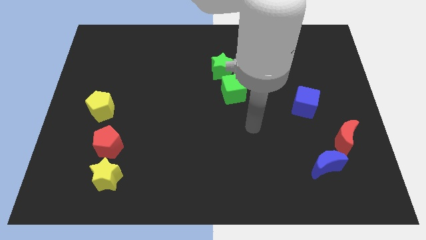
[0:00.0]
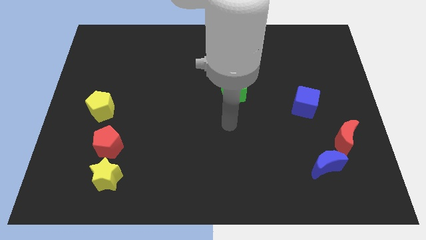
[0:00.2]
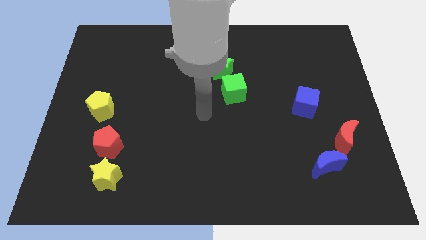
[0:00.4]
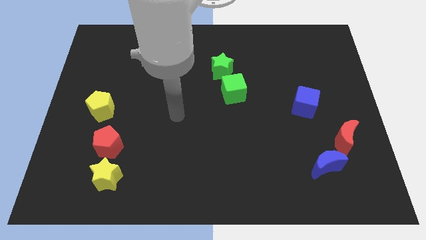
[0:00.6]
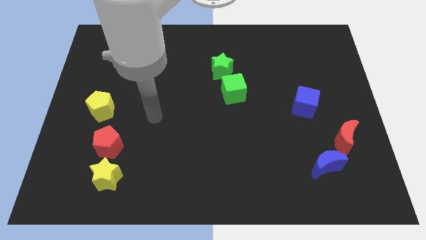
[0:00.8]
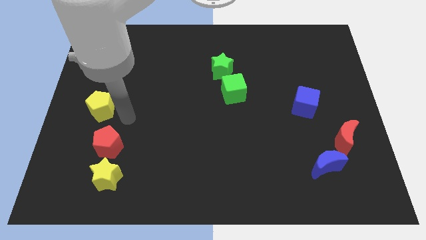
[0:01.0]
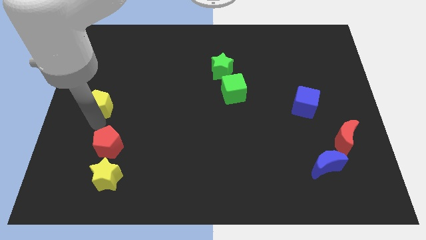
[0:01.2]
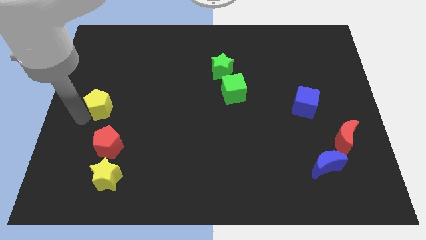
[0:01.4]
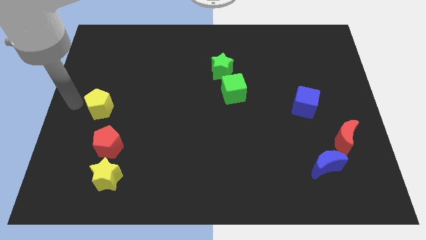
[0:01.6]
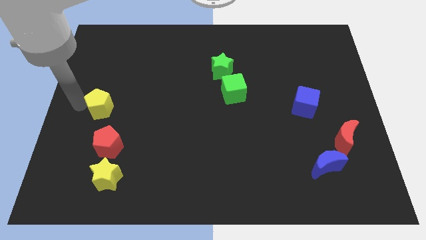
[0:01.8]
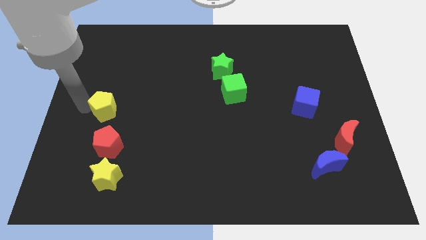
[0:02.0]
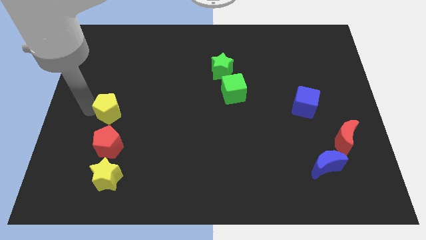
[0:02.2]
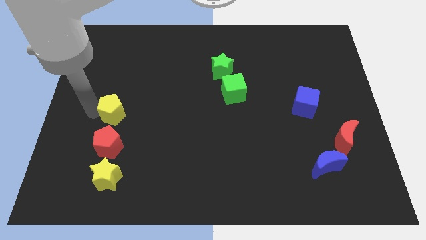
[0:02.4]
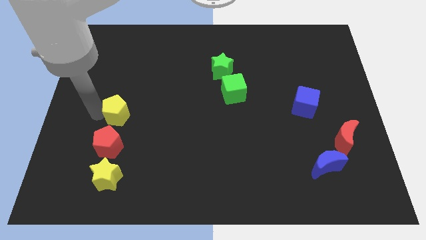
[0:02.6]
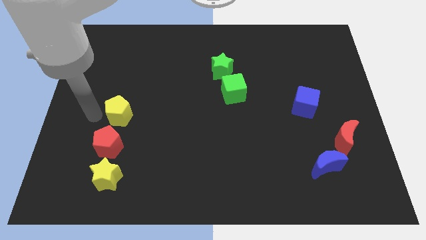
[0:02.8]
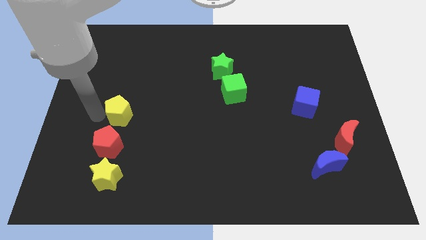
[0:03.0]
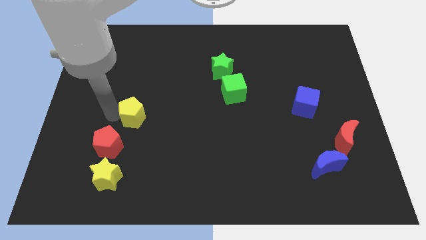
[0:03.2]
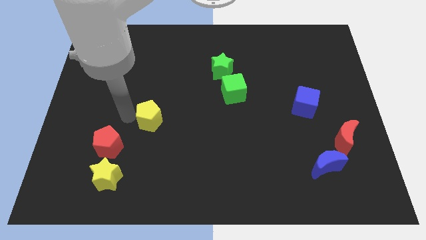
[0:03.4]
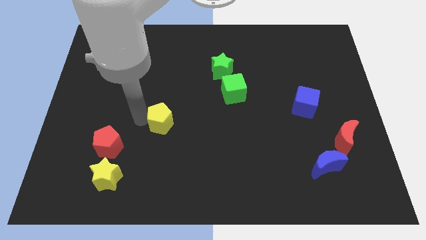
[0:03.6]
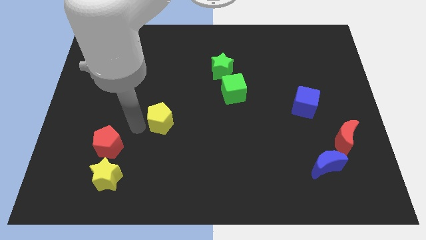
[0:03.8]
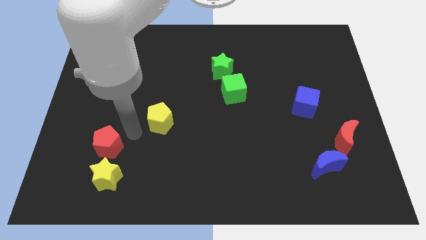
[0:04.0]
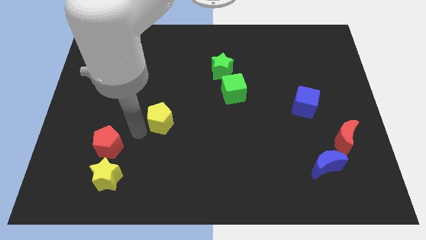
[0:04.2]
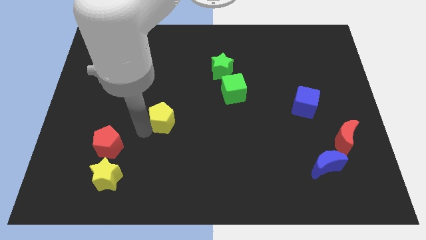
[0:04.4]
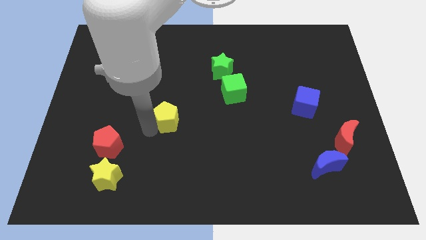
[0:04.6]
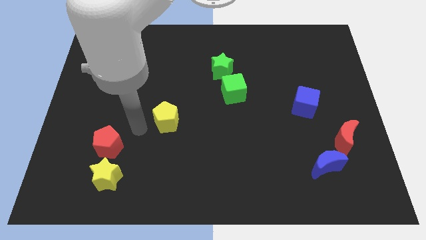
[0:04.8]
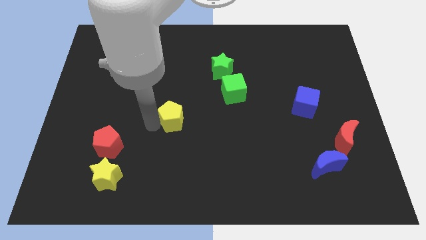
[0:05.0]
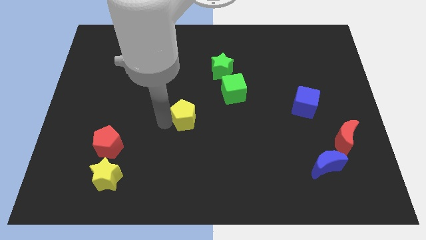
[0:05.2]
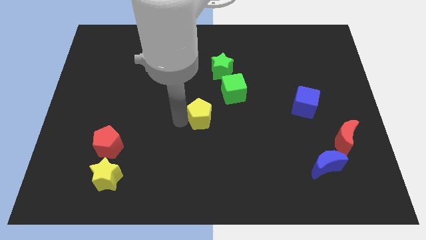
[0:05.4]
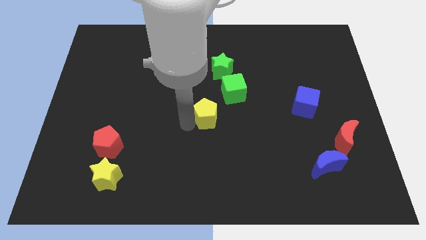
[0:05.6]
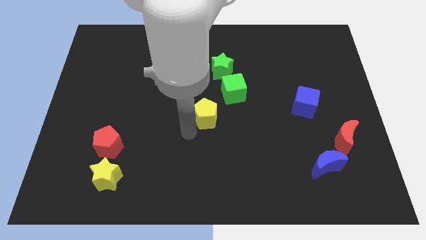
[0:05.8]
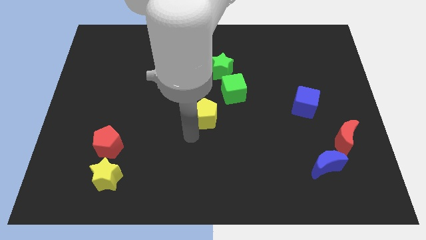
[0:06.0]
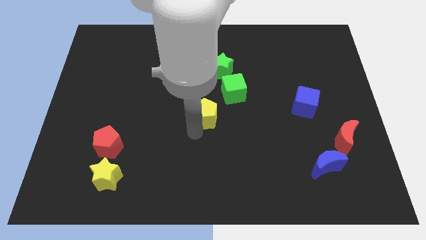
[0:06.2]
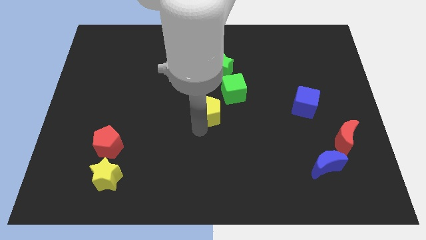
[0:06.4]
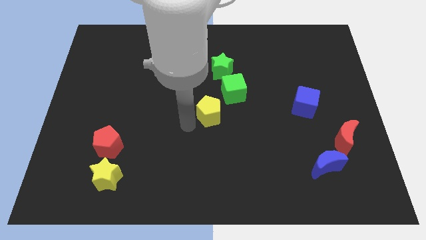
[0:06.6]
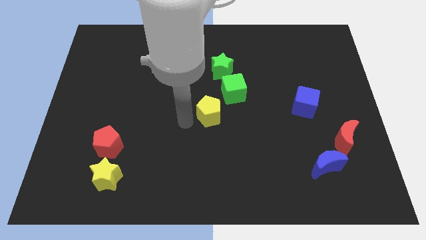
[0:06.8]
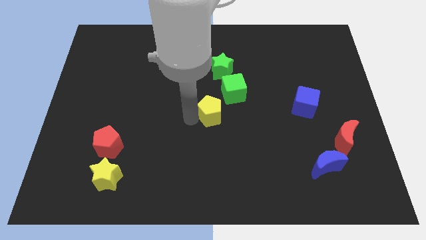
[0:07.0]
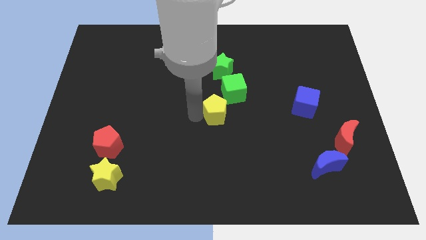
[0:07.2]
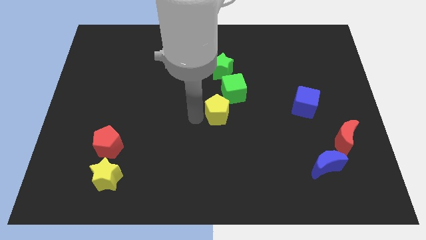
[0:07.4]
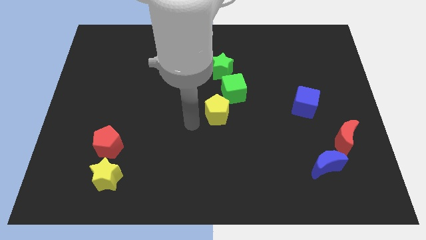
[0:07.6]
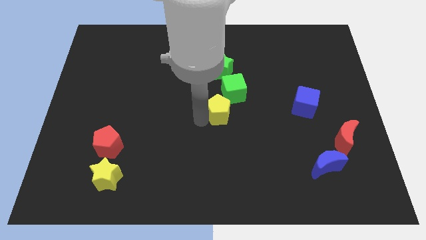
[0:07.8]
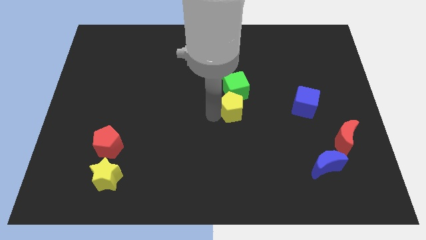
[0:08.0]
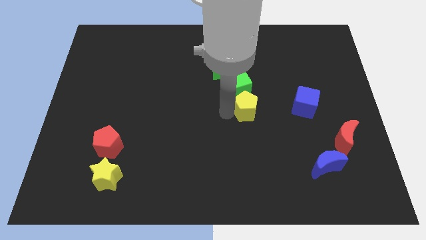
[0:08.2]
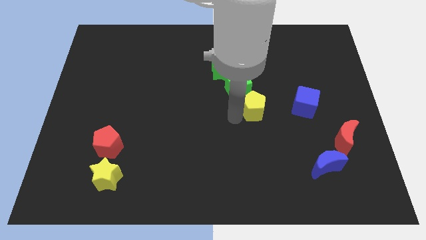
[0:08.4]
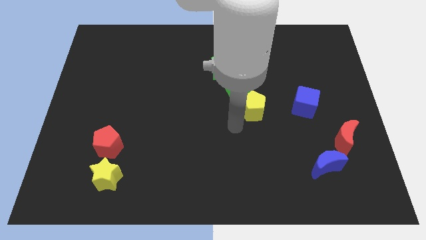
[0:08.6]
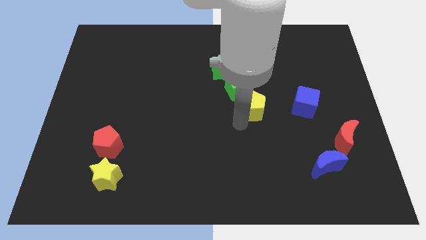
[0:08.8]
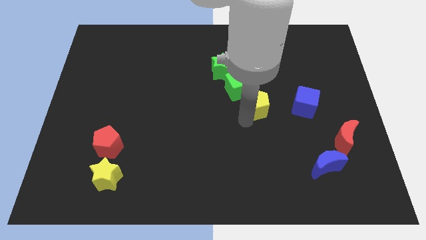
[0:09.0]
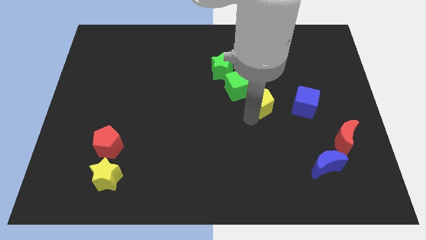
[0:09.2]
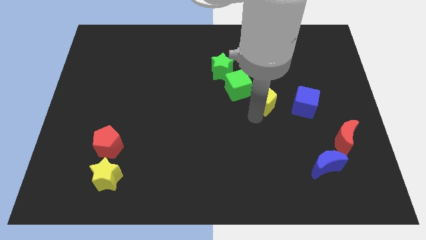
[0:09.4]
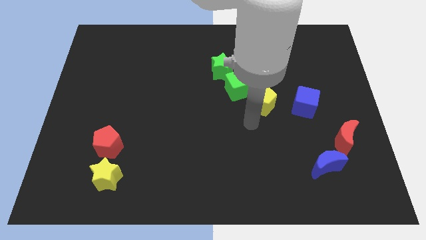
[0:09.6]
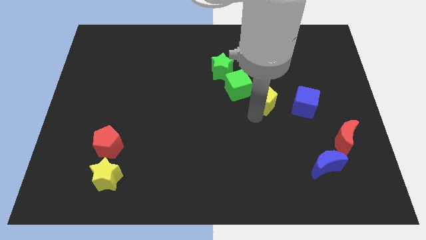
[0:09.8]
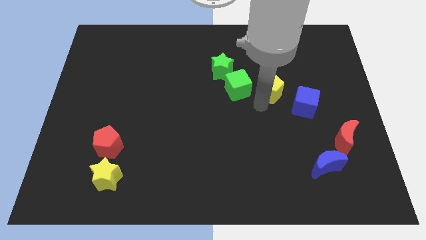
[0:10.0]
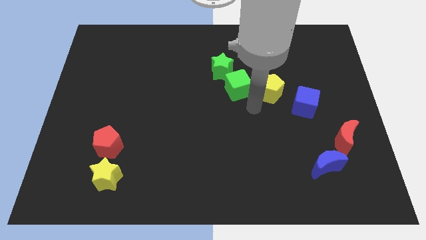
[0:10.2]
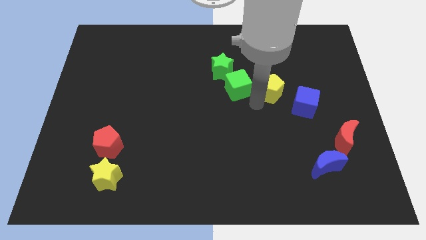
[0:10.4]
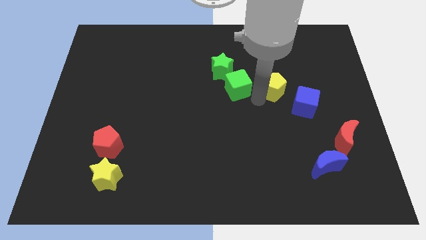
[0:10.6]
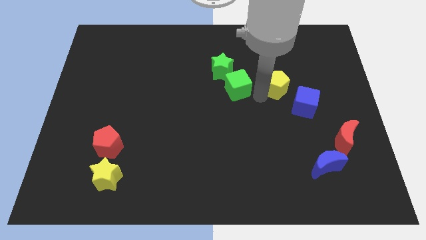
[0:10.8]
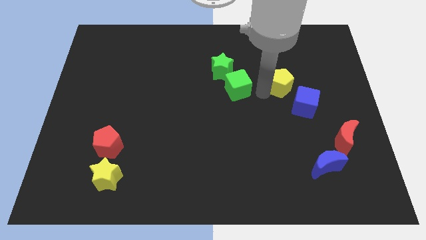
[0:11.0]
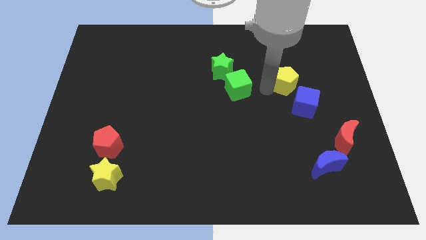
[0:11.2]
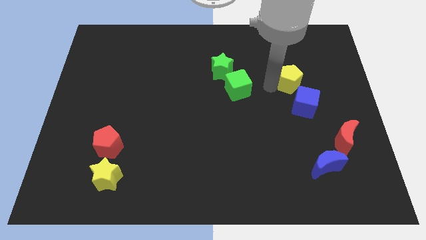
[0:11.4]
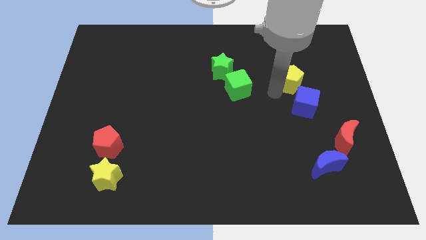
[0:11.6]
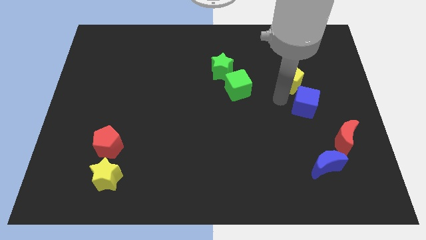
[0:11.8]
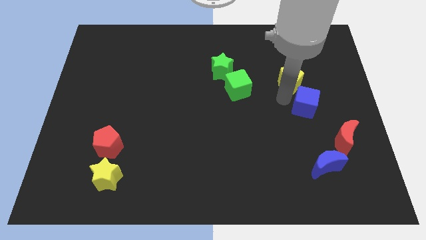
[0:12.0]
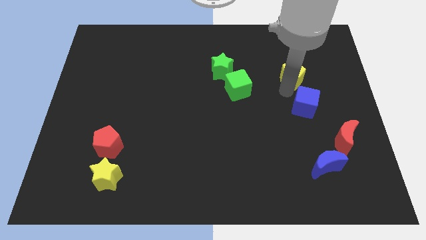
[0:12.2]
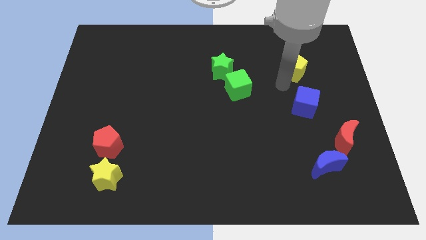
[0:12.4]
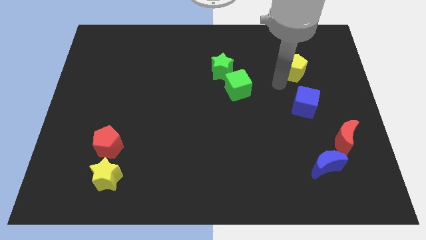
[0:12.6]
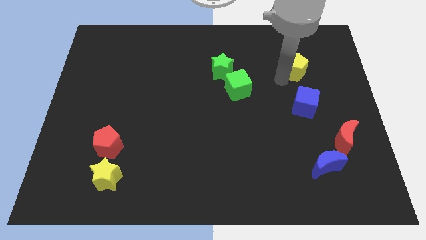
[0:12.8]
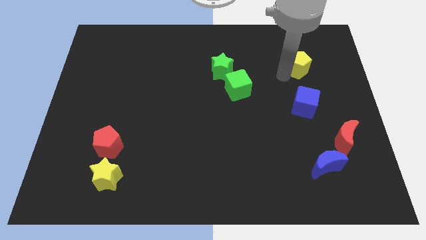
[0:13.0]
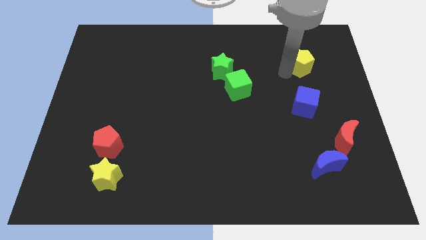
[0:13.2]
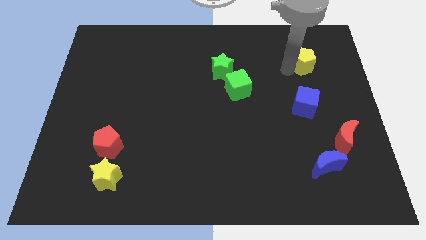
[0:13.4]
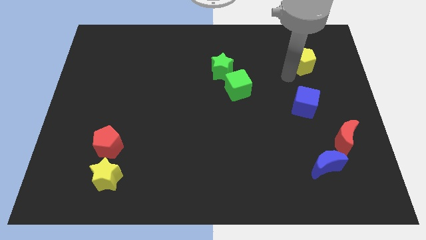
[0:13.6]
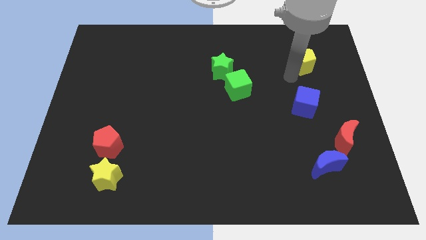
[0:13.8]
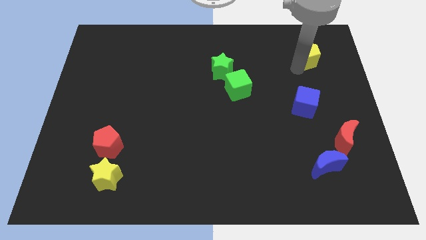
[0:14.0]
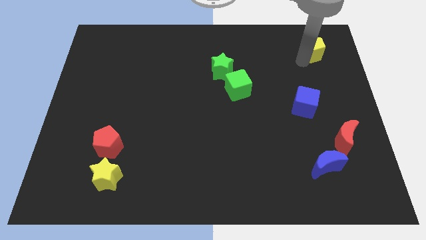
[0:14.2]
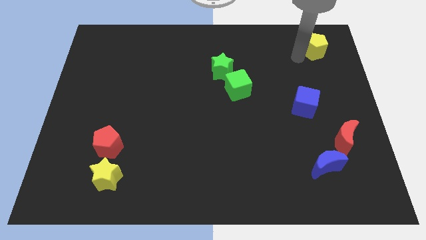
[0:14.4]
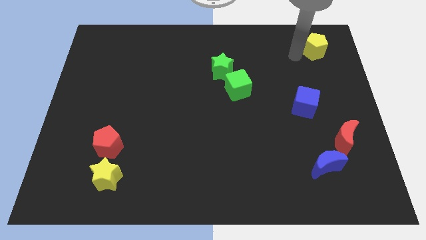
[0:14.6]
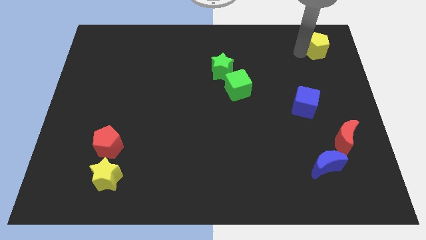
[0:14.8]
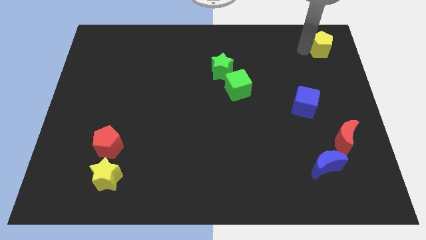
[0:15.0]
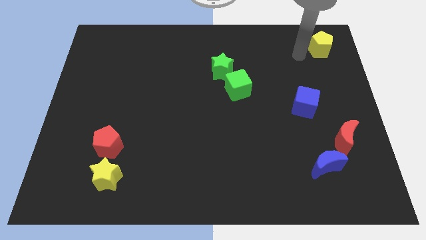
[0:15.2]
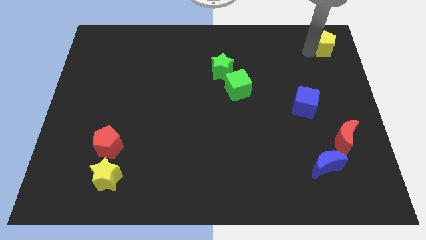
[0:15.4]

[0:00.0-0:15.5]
push the yellow pentagon to the top right corner
